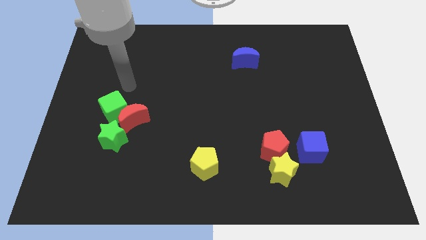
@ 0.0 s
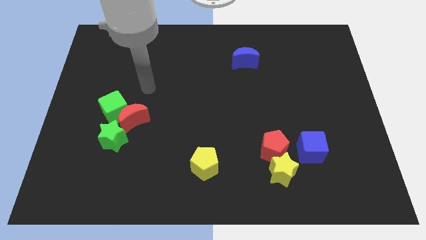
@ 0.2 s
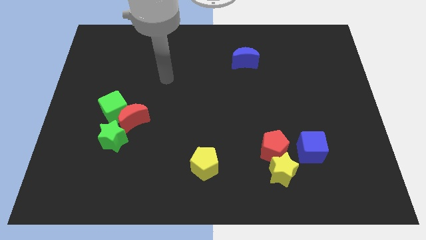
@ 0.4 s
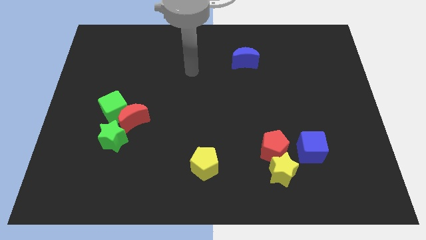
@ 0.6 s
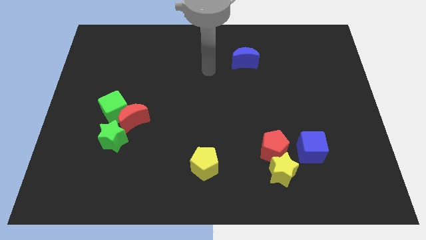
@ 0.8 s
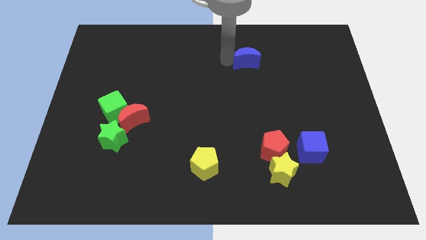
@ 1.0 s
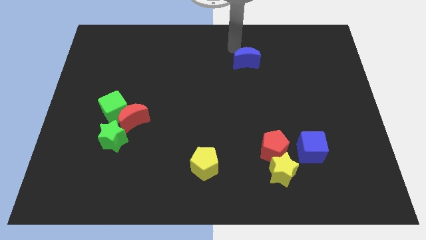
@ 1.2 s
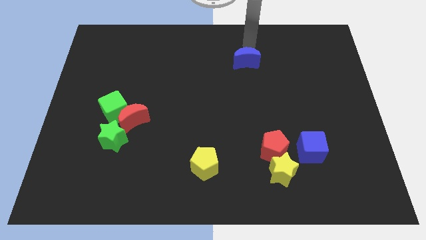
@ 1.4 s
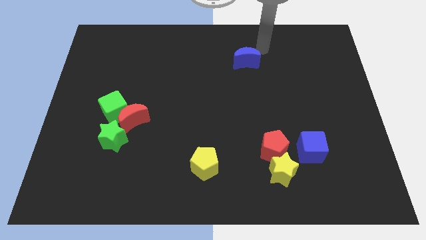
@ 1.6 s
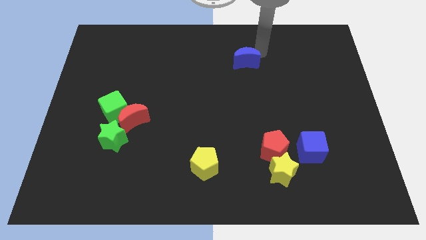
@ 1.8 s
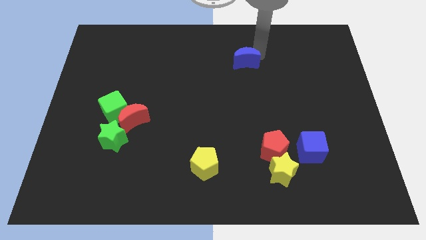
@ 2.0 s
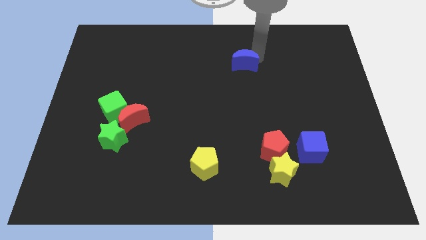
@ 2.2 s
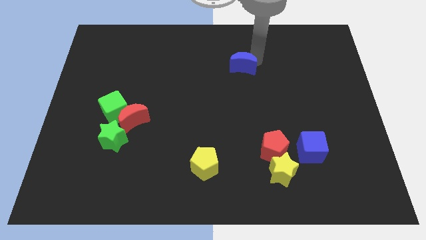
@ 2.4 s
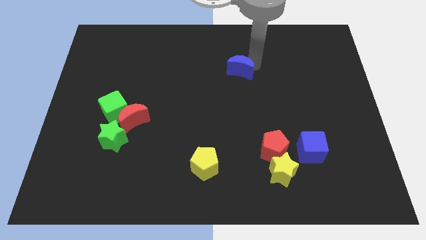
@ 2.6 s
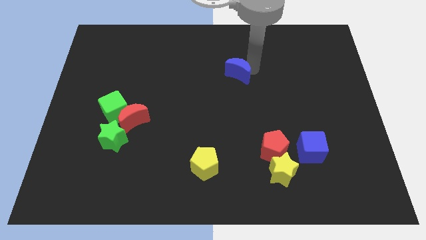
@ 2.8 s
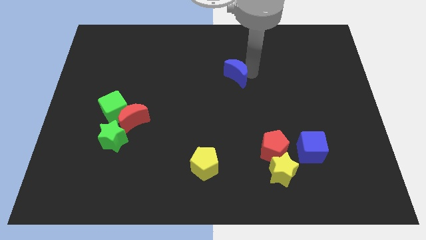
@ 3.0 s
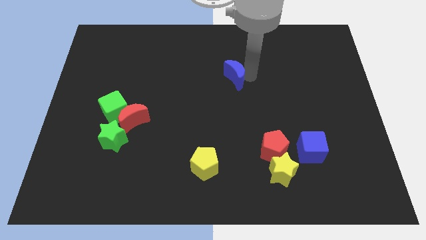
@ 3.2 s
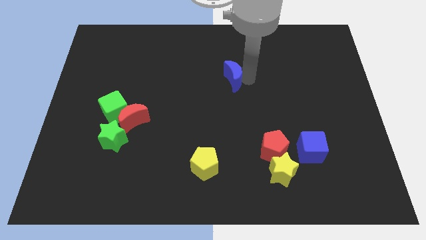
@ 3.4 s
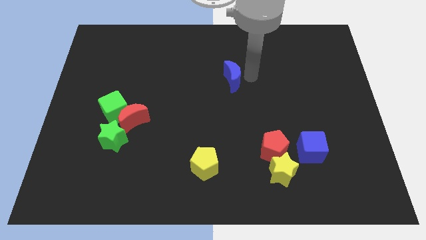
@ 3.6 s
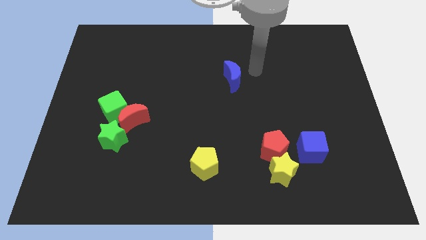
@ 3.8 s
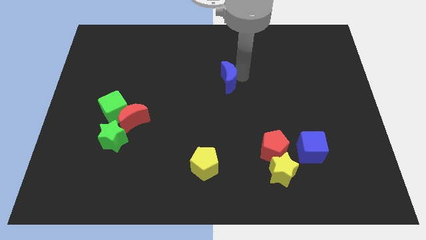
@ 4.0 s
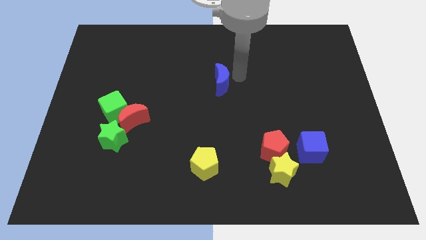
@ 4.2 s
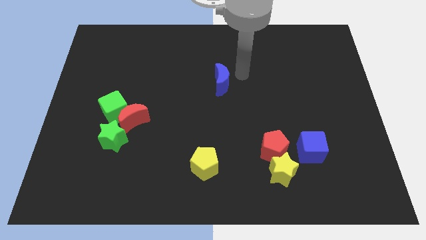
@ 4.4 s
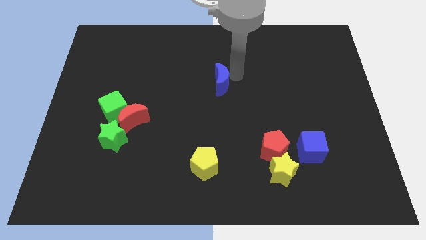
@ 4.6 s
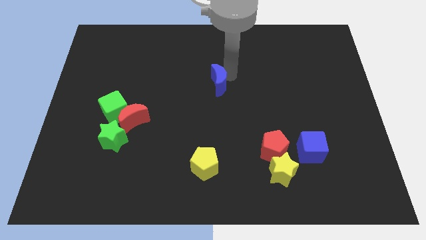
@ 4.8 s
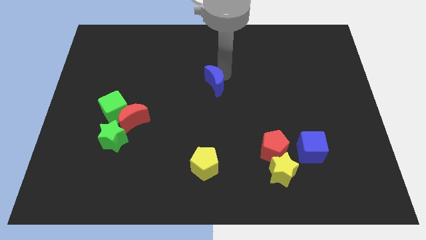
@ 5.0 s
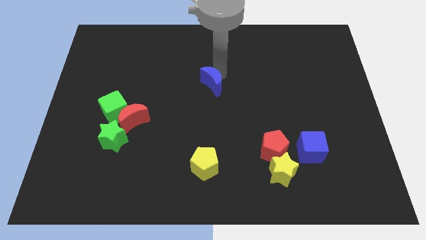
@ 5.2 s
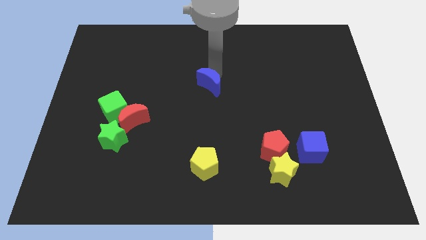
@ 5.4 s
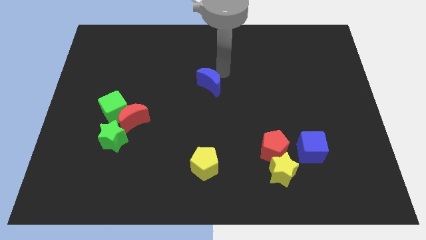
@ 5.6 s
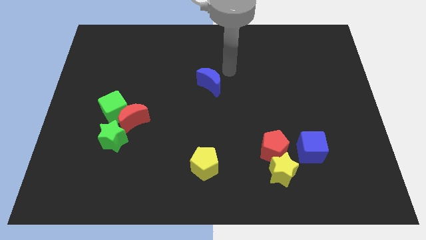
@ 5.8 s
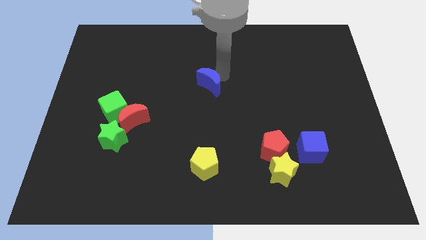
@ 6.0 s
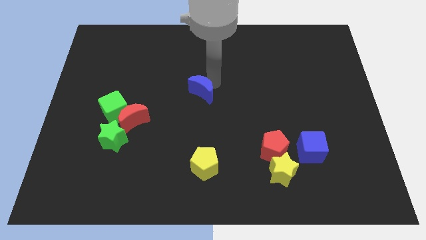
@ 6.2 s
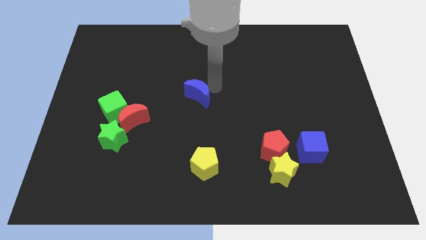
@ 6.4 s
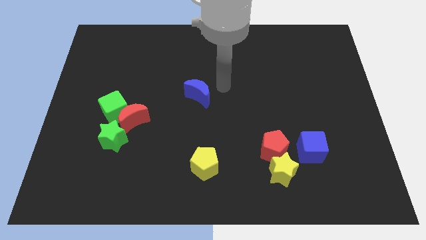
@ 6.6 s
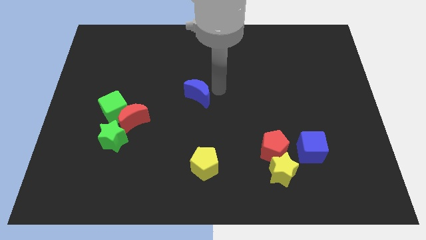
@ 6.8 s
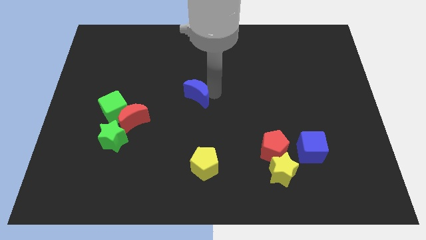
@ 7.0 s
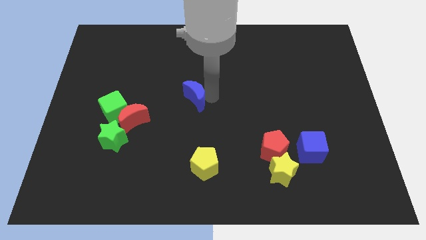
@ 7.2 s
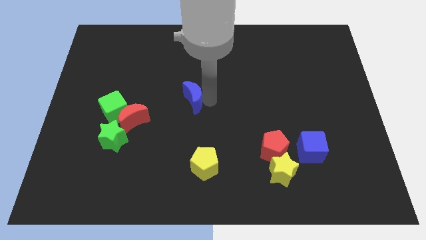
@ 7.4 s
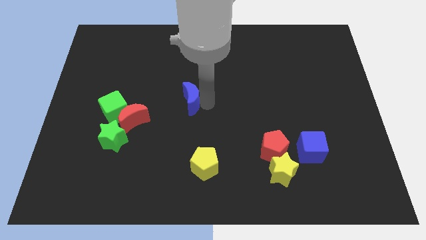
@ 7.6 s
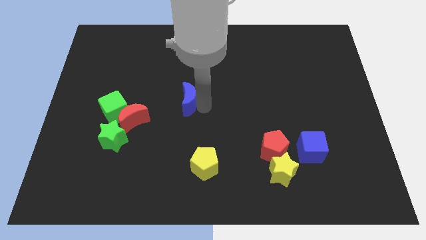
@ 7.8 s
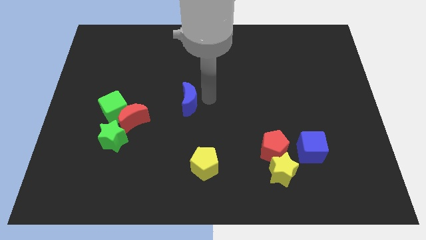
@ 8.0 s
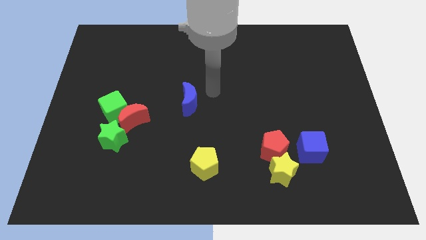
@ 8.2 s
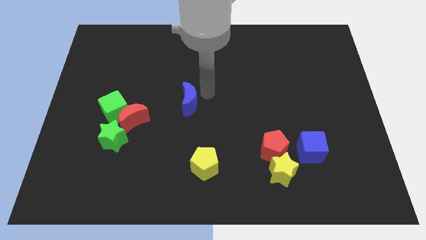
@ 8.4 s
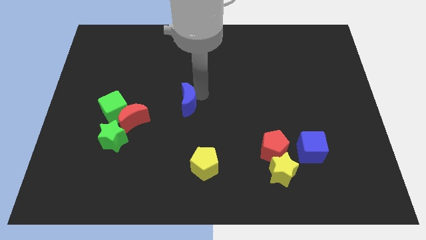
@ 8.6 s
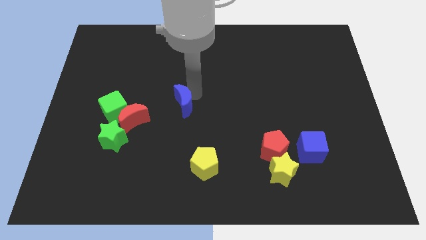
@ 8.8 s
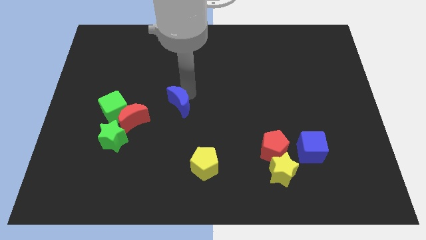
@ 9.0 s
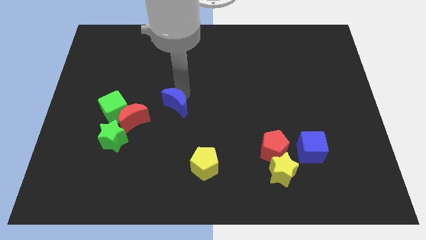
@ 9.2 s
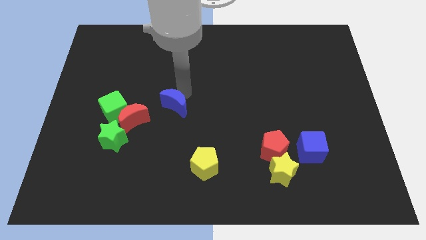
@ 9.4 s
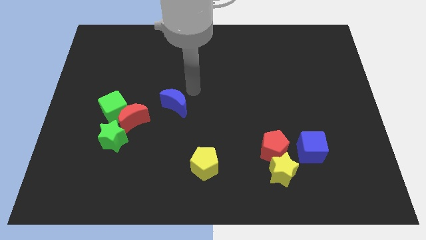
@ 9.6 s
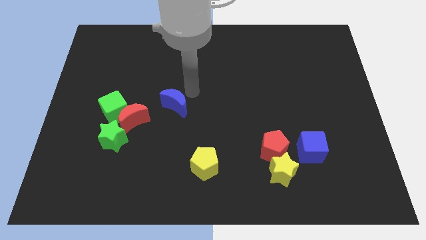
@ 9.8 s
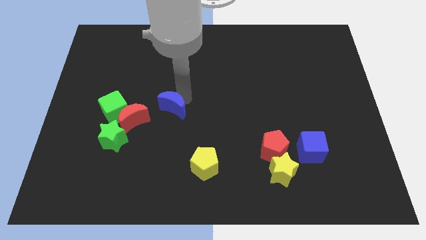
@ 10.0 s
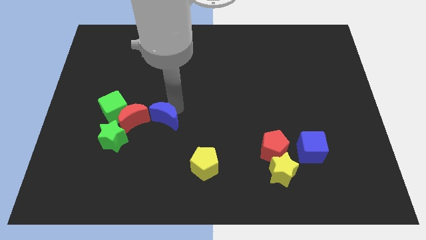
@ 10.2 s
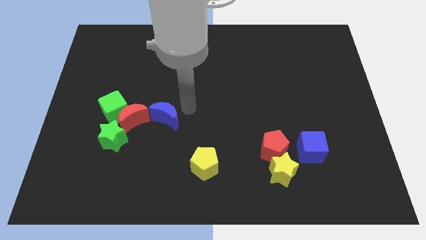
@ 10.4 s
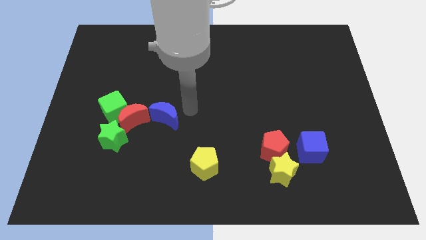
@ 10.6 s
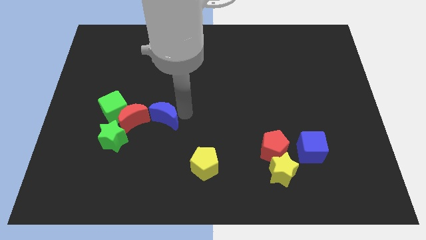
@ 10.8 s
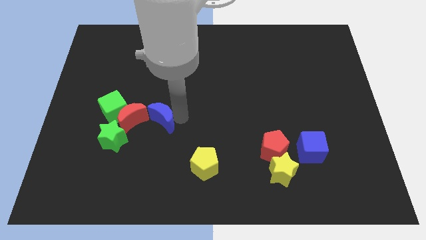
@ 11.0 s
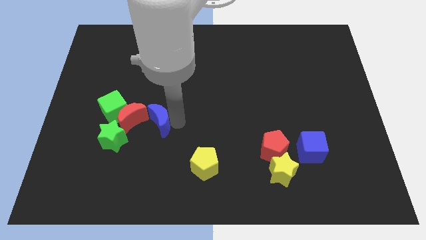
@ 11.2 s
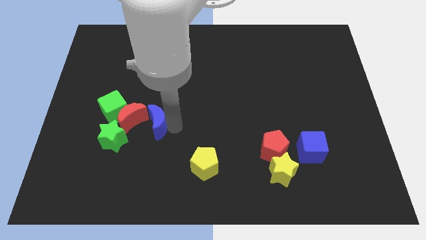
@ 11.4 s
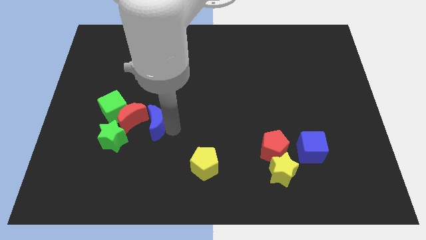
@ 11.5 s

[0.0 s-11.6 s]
push the blue moon to the bottom right of the green cube
